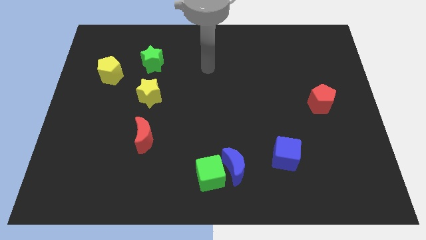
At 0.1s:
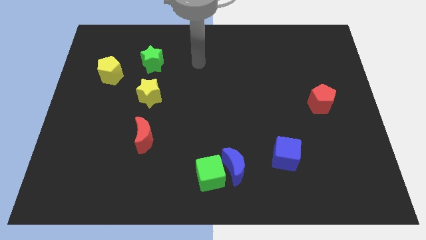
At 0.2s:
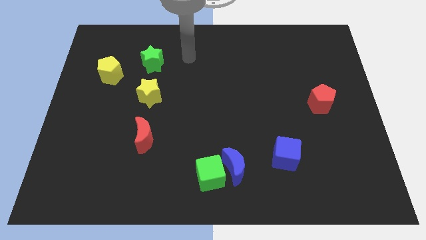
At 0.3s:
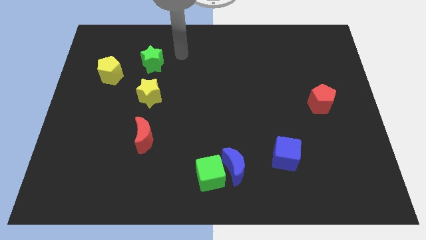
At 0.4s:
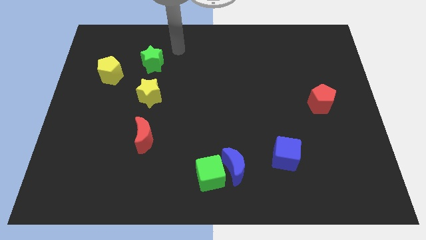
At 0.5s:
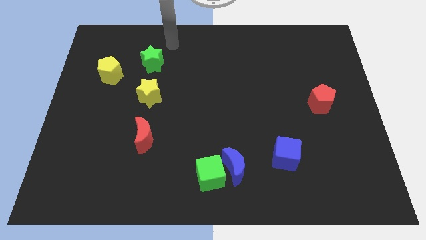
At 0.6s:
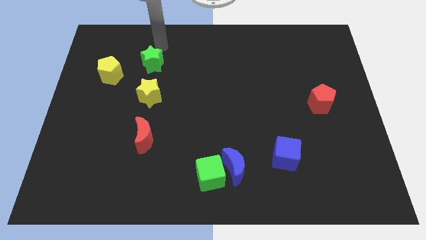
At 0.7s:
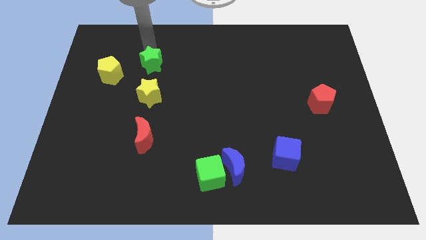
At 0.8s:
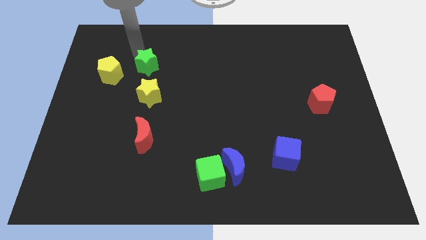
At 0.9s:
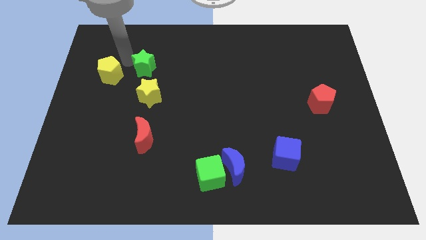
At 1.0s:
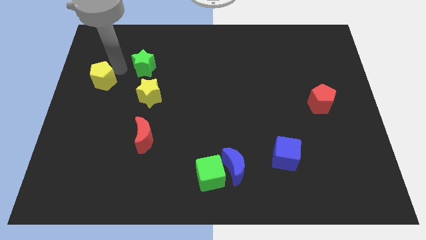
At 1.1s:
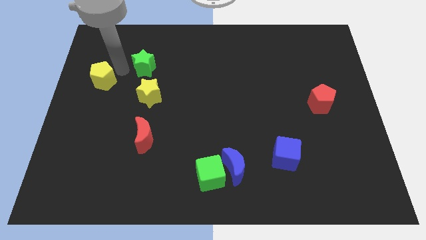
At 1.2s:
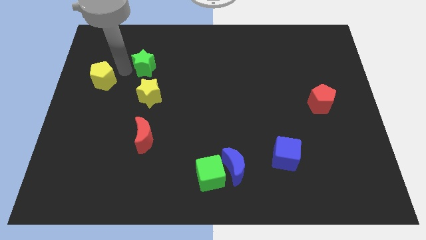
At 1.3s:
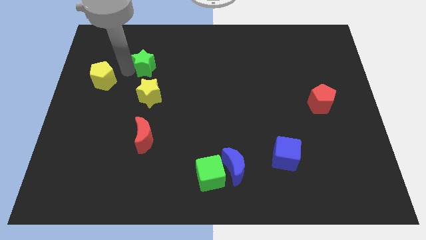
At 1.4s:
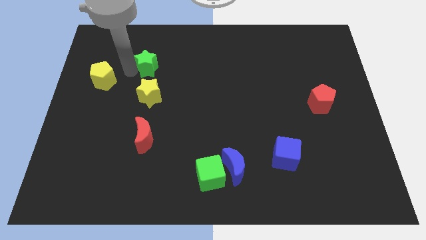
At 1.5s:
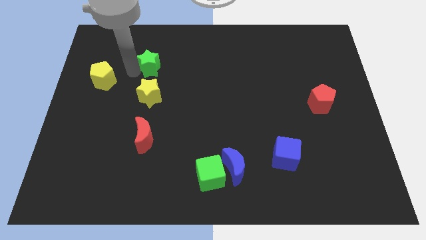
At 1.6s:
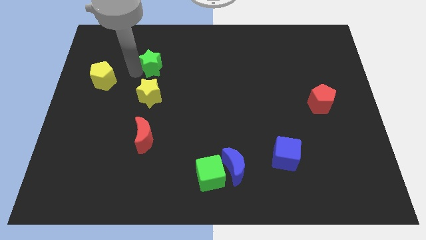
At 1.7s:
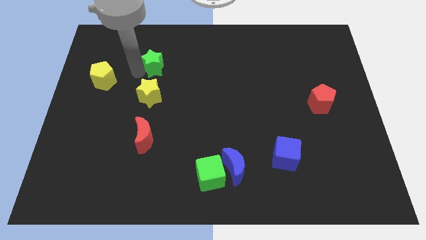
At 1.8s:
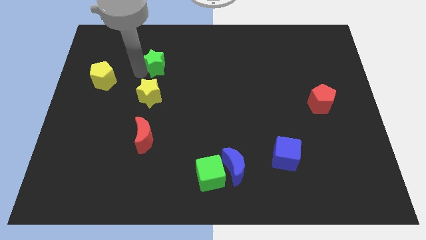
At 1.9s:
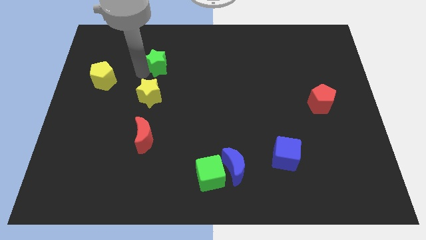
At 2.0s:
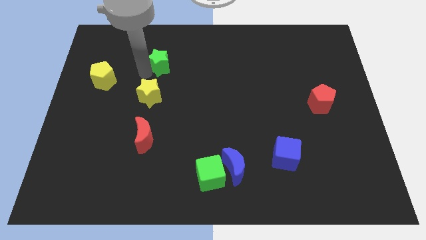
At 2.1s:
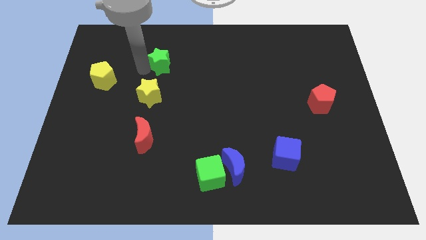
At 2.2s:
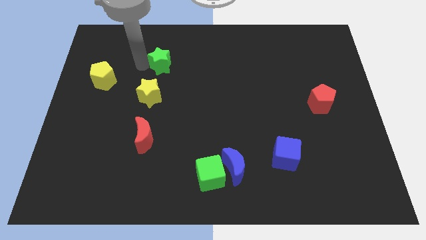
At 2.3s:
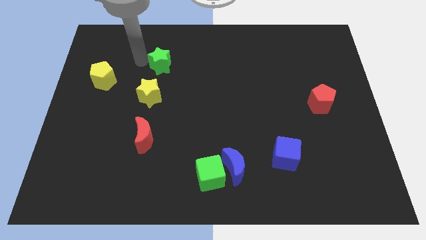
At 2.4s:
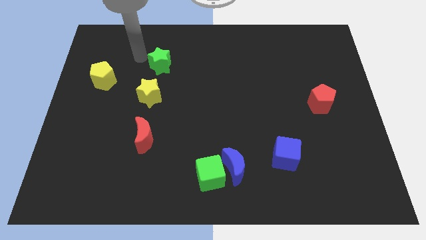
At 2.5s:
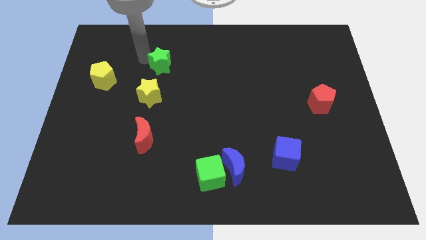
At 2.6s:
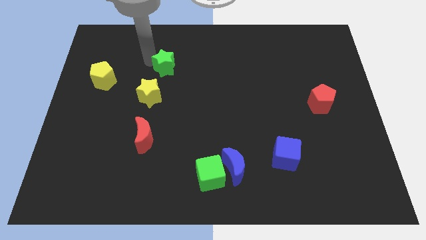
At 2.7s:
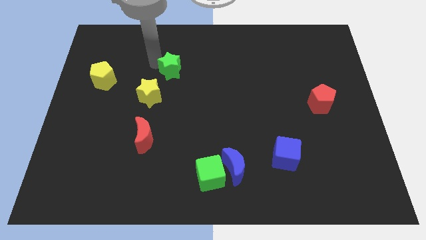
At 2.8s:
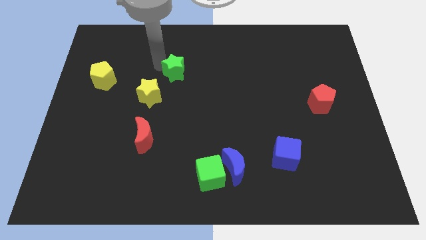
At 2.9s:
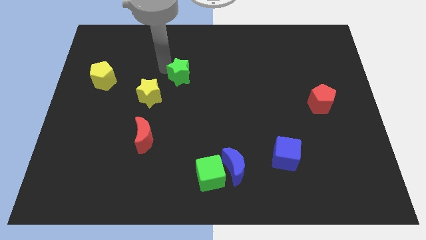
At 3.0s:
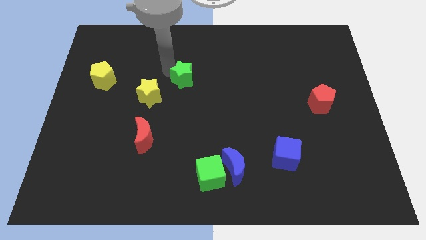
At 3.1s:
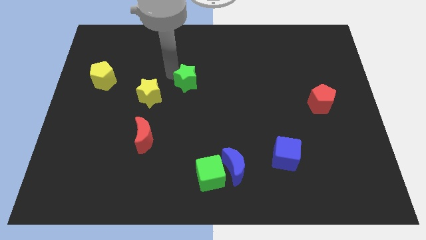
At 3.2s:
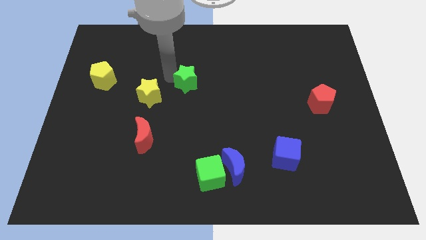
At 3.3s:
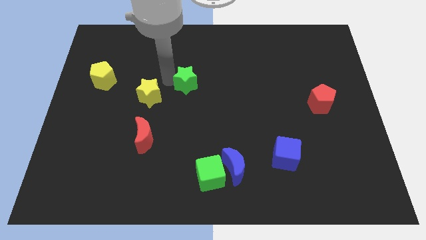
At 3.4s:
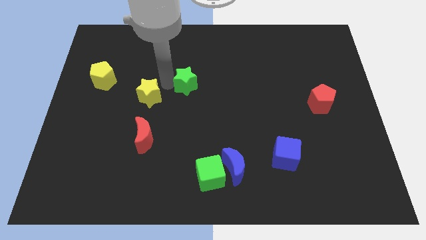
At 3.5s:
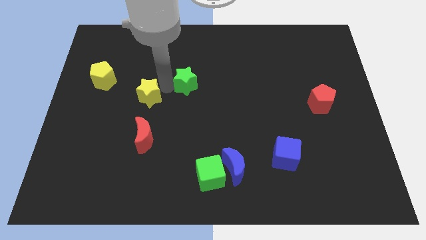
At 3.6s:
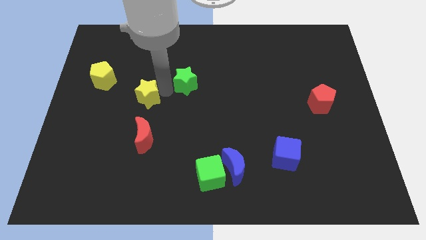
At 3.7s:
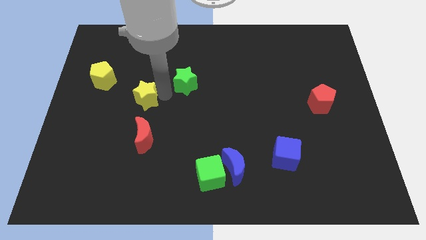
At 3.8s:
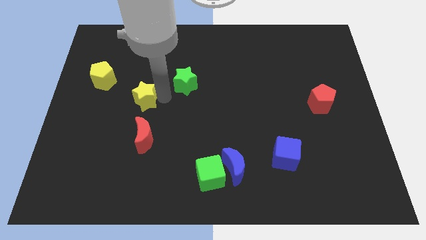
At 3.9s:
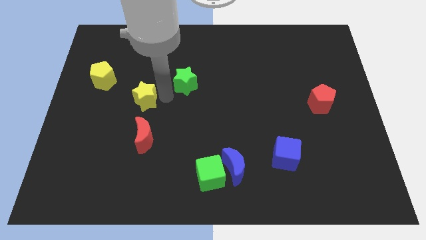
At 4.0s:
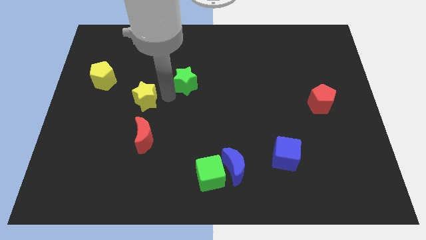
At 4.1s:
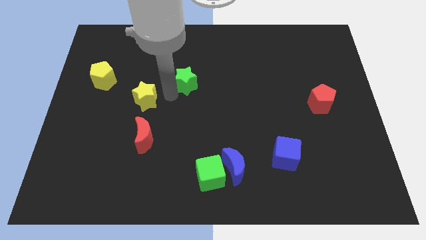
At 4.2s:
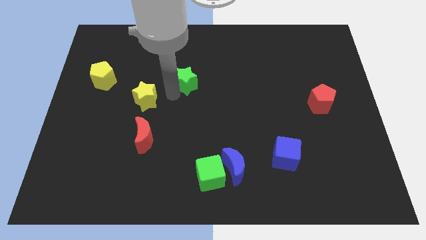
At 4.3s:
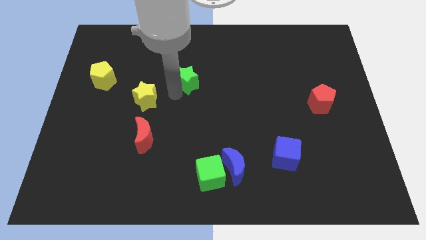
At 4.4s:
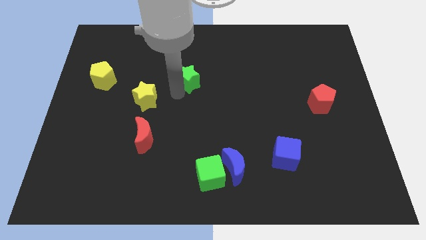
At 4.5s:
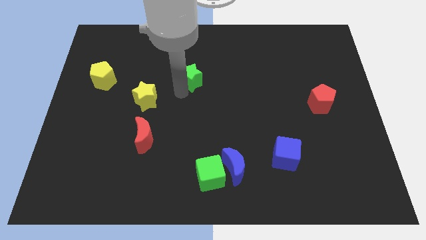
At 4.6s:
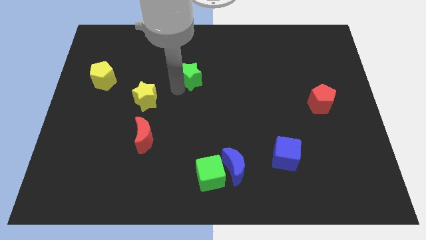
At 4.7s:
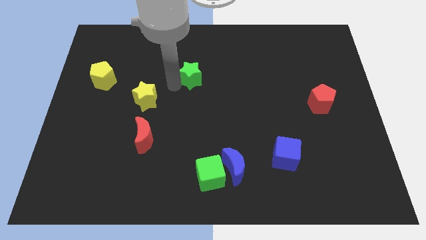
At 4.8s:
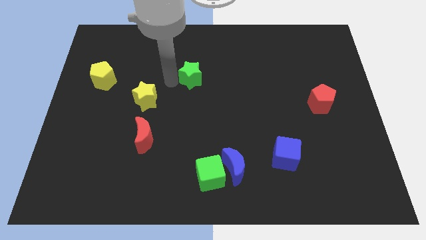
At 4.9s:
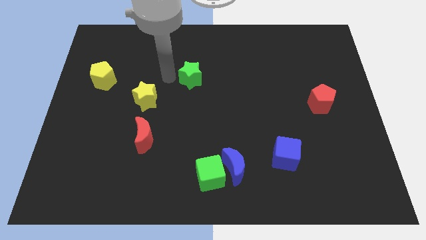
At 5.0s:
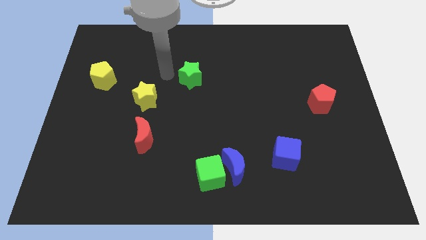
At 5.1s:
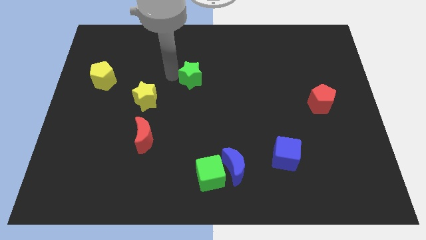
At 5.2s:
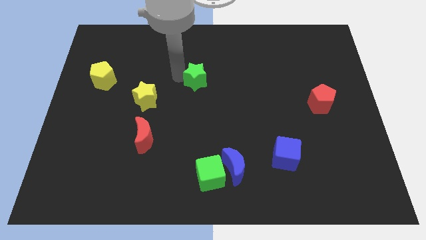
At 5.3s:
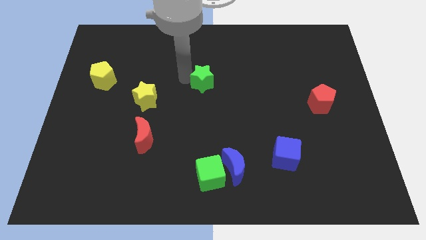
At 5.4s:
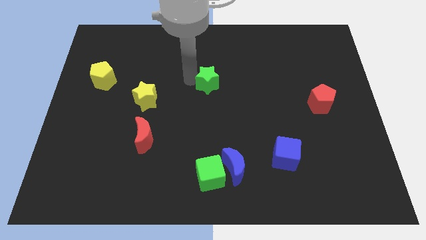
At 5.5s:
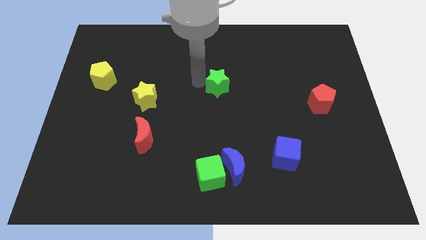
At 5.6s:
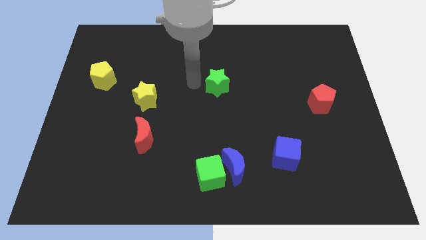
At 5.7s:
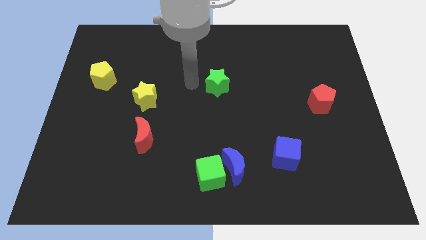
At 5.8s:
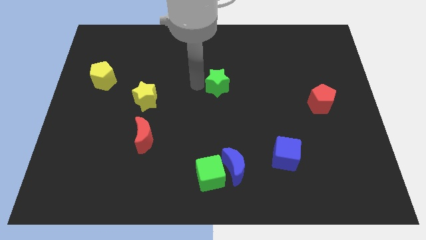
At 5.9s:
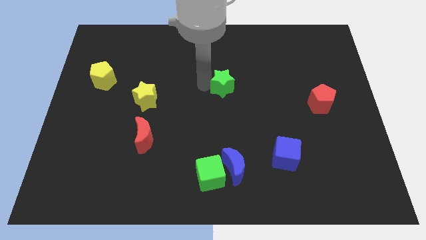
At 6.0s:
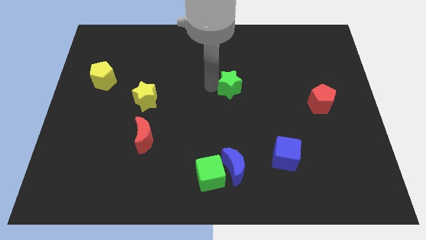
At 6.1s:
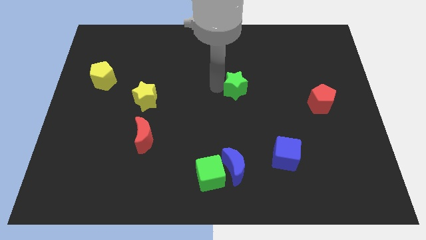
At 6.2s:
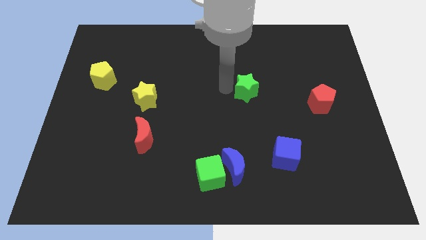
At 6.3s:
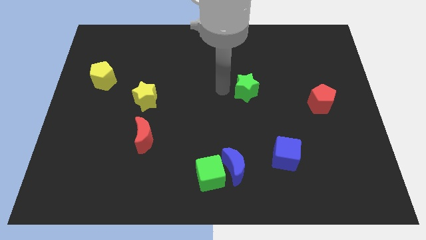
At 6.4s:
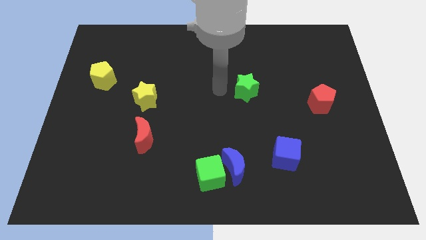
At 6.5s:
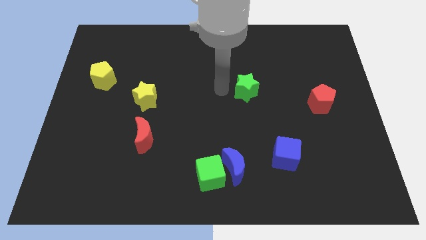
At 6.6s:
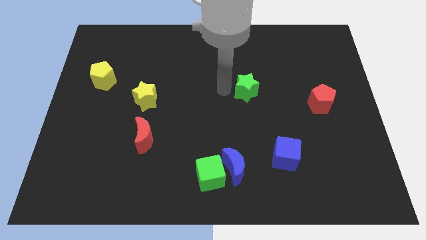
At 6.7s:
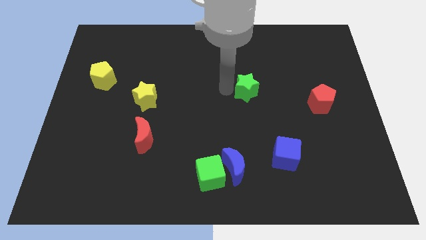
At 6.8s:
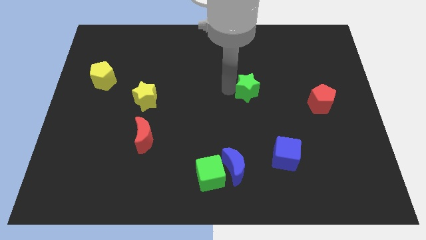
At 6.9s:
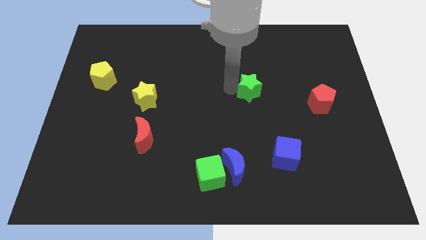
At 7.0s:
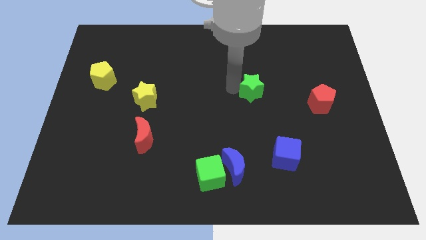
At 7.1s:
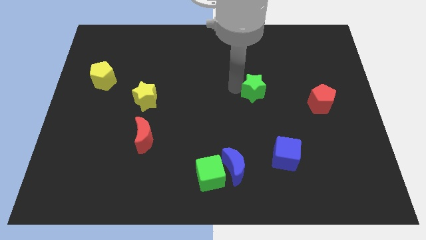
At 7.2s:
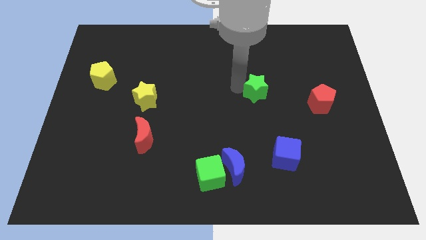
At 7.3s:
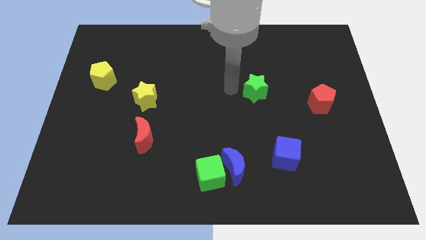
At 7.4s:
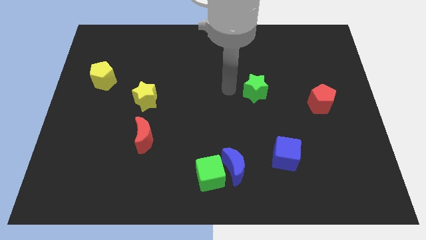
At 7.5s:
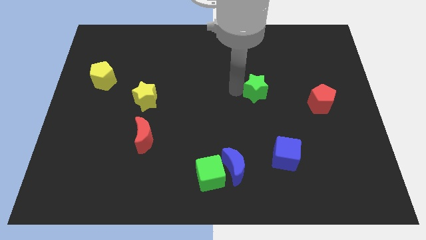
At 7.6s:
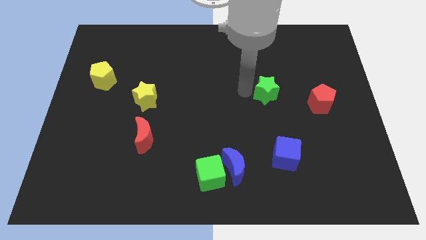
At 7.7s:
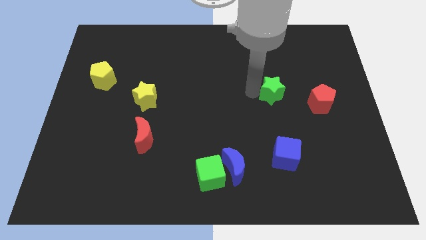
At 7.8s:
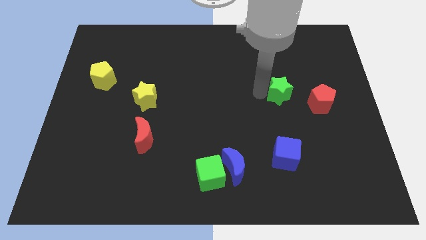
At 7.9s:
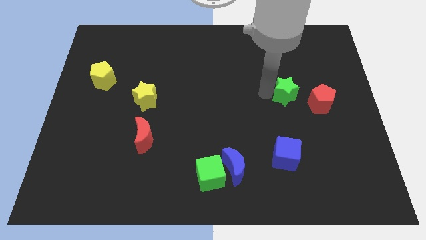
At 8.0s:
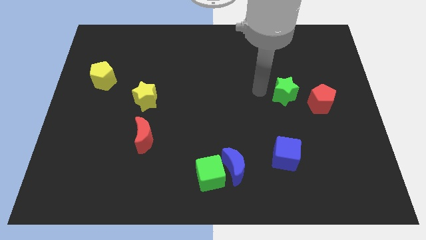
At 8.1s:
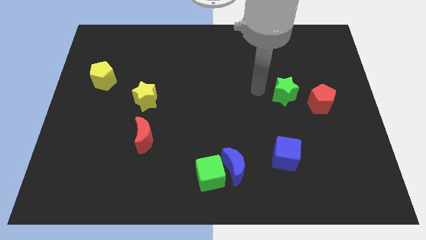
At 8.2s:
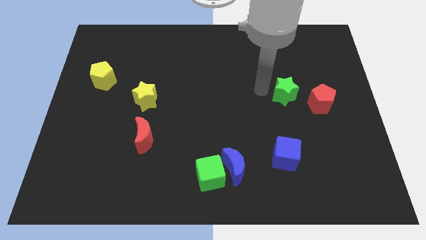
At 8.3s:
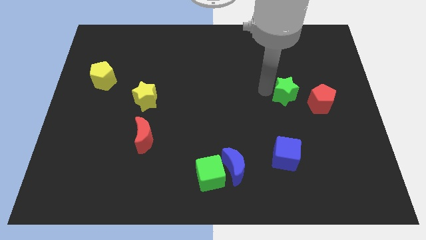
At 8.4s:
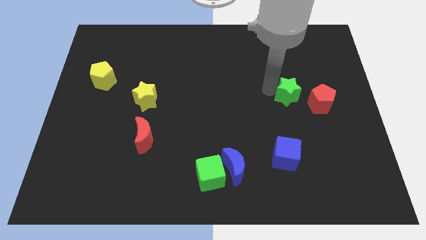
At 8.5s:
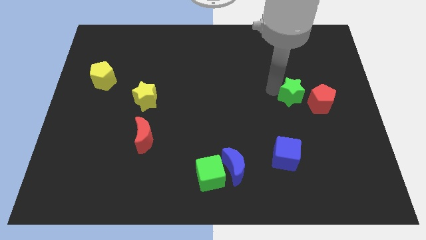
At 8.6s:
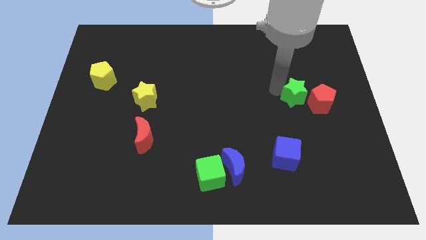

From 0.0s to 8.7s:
move the green star next to the red pentagon
